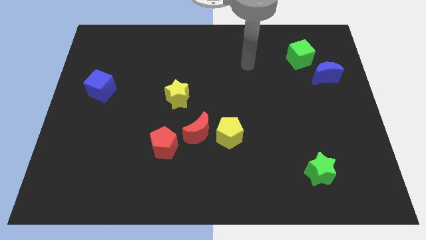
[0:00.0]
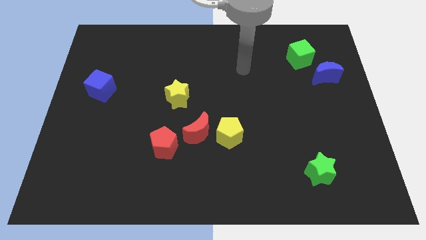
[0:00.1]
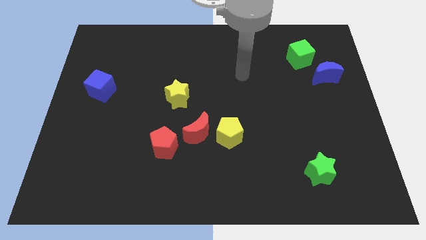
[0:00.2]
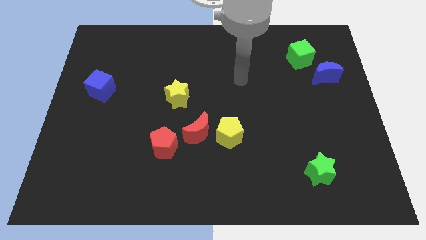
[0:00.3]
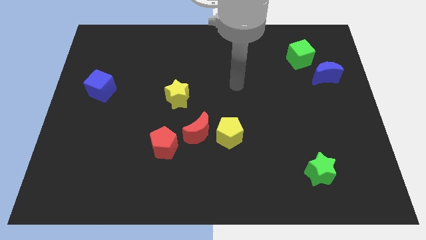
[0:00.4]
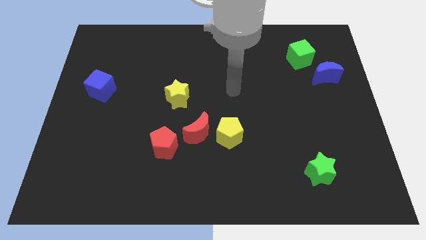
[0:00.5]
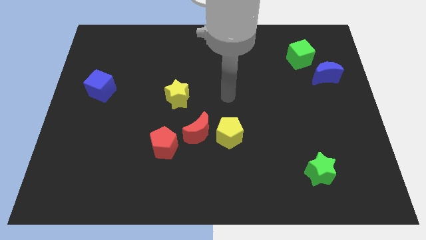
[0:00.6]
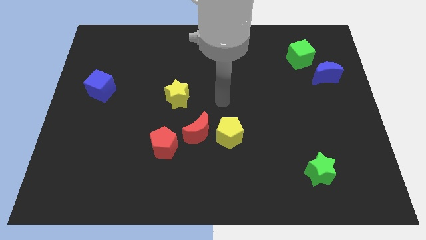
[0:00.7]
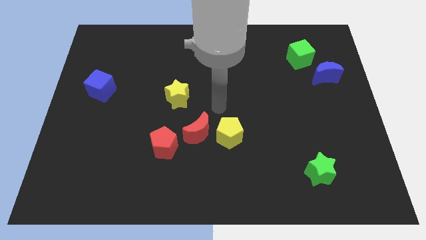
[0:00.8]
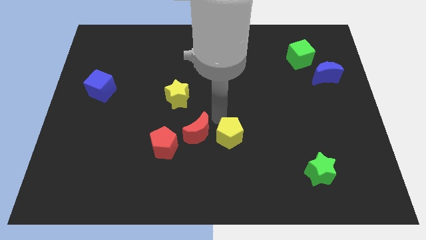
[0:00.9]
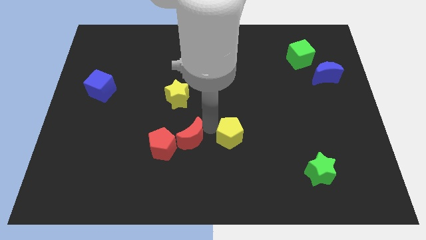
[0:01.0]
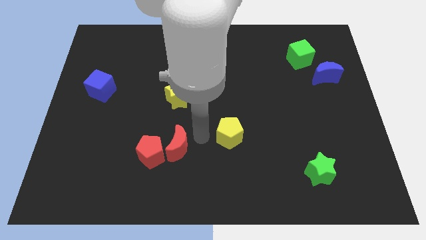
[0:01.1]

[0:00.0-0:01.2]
pull the yellow pentagon apart from the red moon

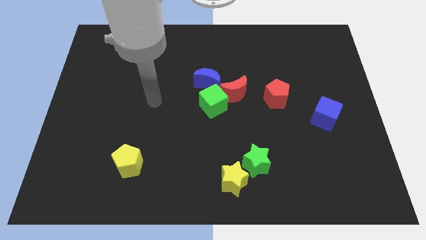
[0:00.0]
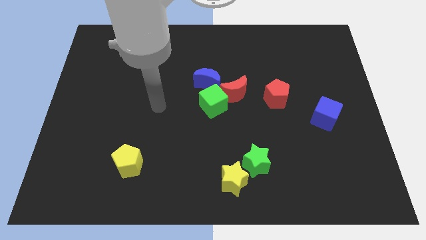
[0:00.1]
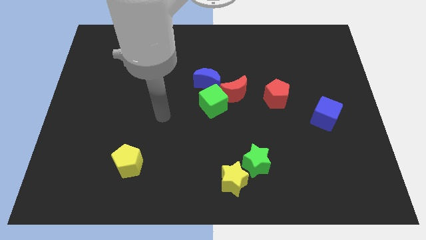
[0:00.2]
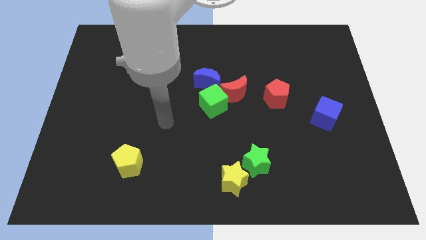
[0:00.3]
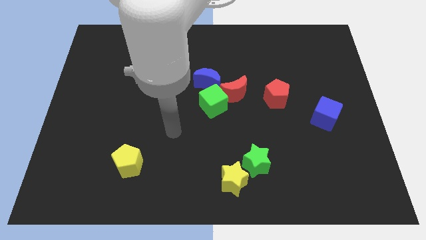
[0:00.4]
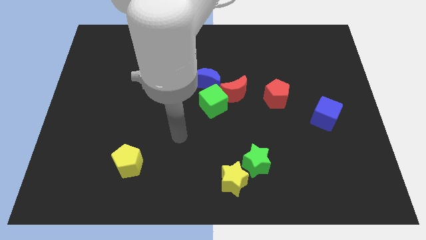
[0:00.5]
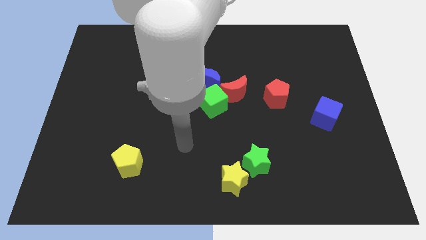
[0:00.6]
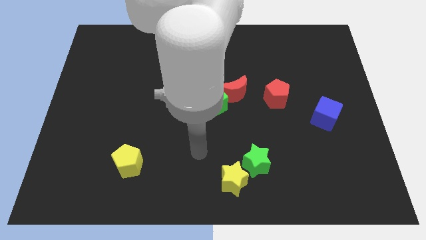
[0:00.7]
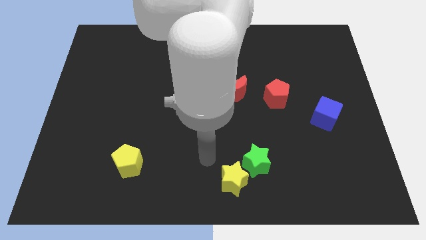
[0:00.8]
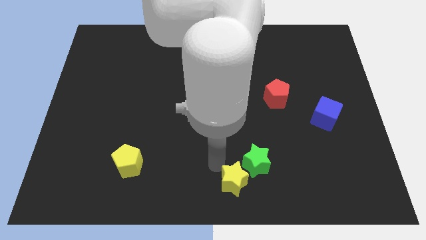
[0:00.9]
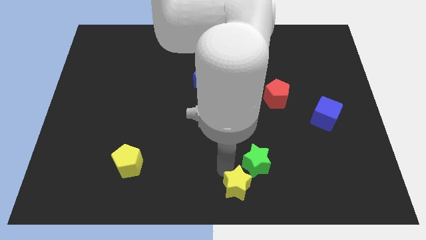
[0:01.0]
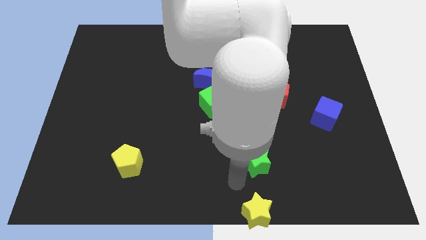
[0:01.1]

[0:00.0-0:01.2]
pull the green star apart from the yellow star

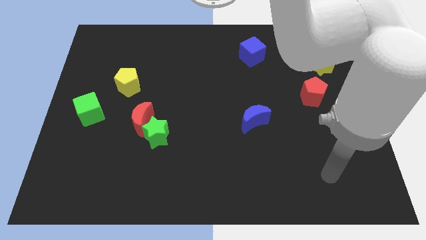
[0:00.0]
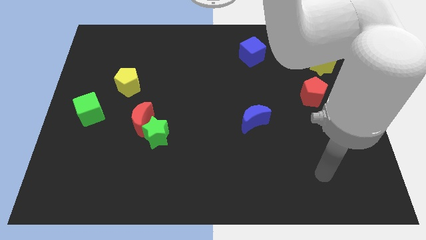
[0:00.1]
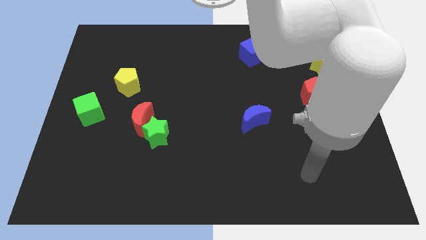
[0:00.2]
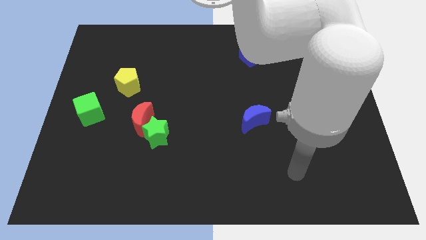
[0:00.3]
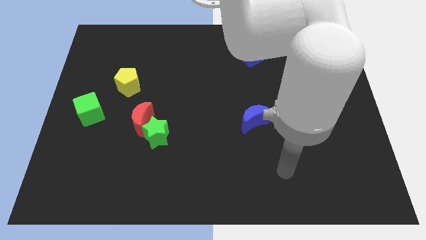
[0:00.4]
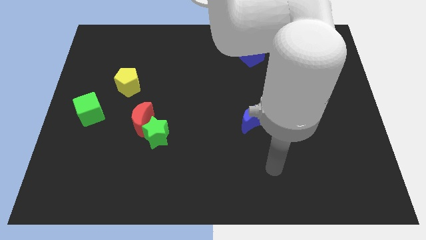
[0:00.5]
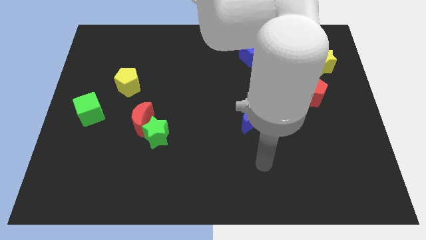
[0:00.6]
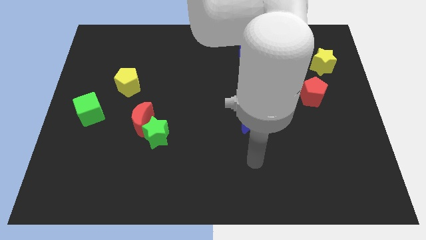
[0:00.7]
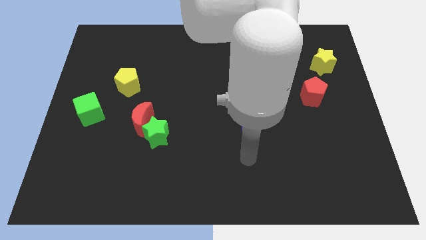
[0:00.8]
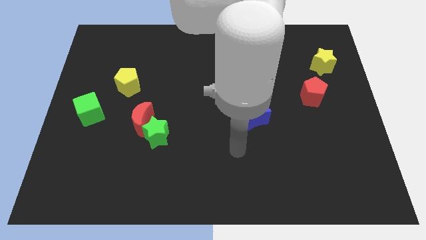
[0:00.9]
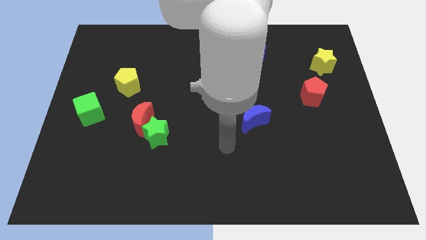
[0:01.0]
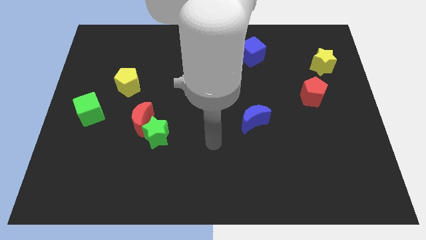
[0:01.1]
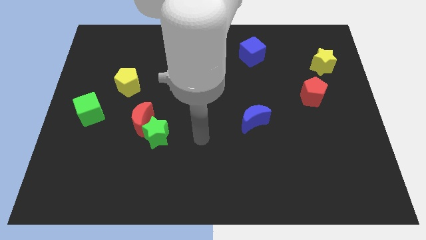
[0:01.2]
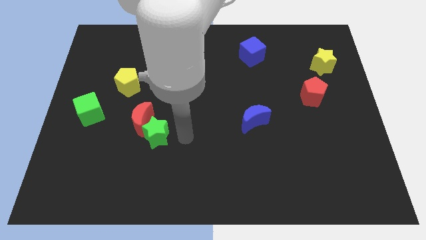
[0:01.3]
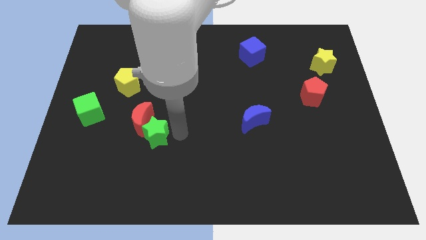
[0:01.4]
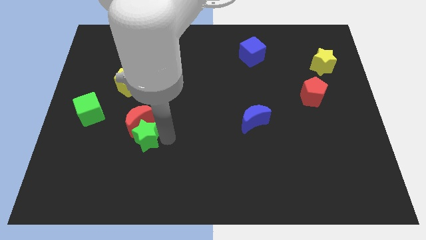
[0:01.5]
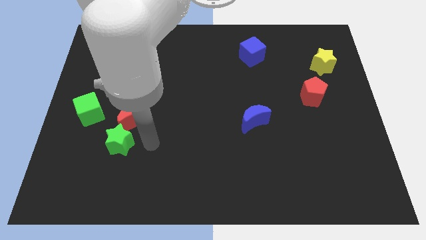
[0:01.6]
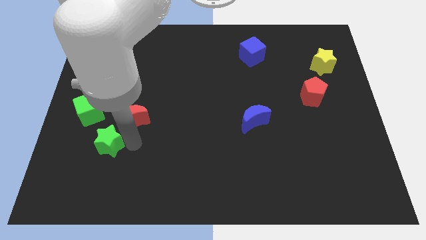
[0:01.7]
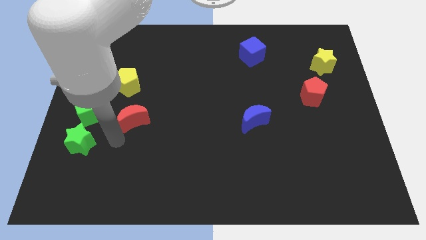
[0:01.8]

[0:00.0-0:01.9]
move the red moon away from the green star

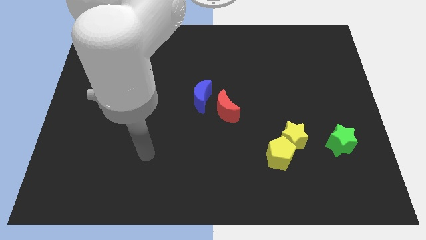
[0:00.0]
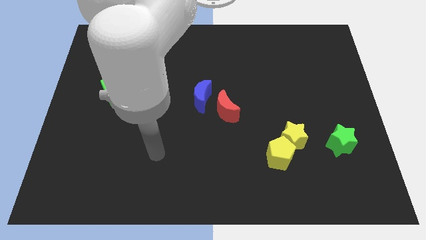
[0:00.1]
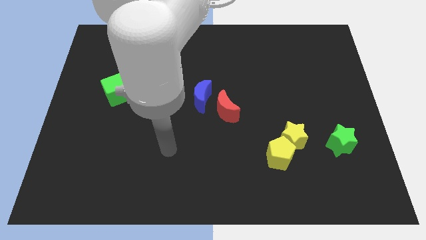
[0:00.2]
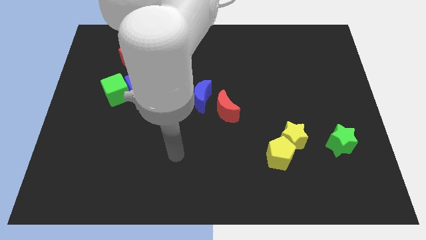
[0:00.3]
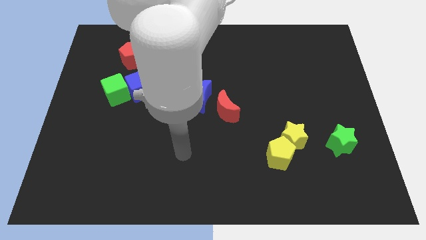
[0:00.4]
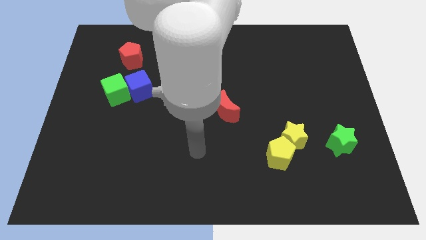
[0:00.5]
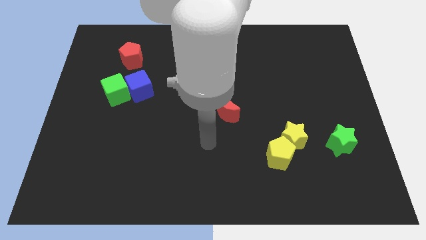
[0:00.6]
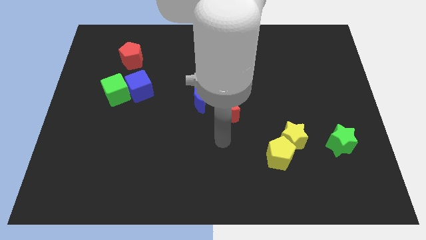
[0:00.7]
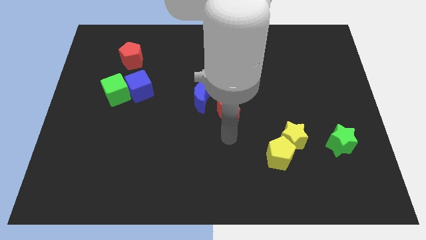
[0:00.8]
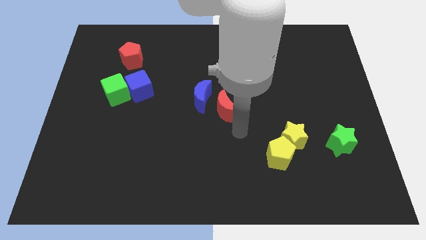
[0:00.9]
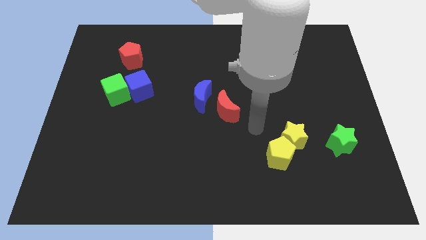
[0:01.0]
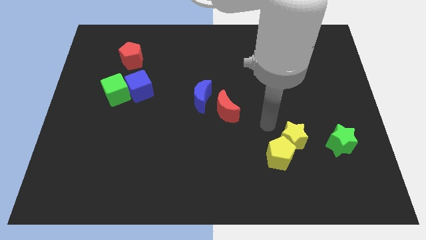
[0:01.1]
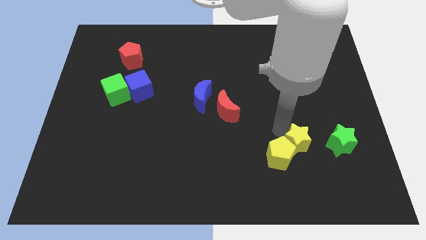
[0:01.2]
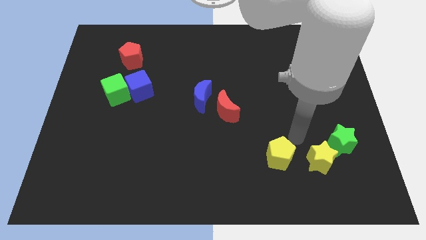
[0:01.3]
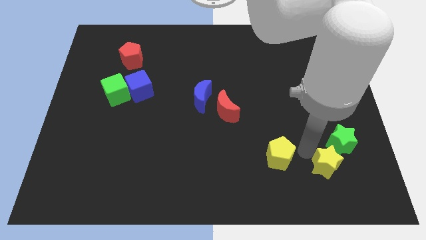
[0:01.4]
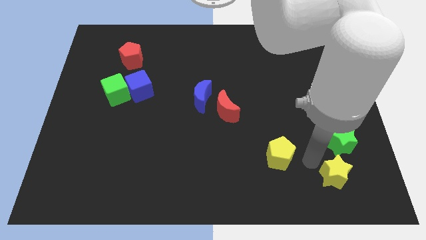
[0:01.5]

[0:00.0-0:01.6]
pull the yellow pentagon apart from the yellow star

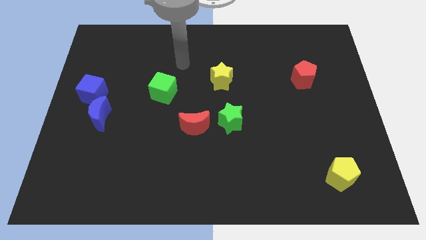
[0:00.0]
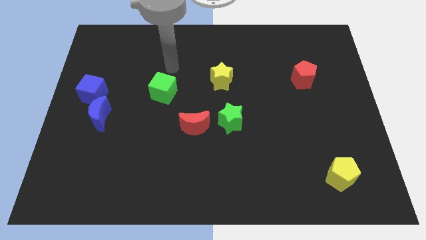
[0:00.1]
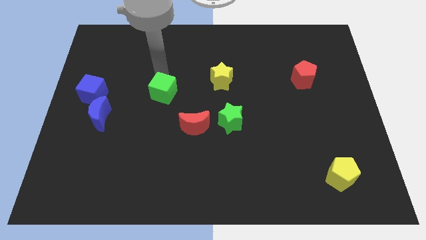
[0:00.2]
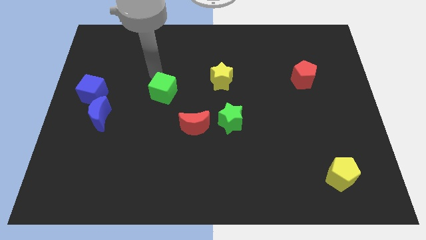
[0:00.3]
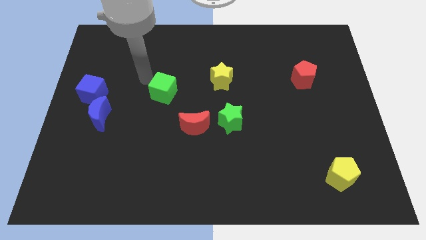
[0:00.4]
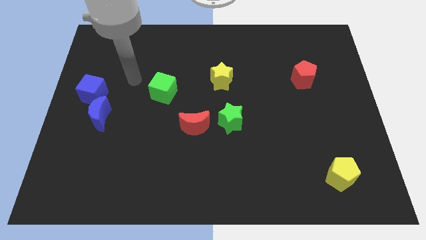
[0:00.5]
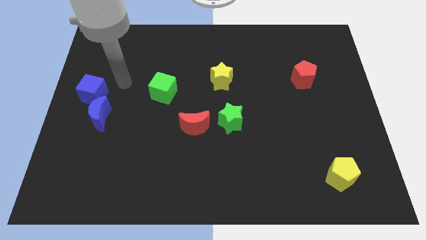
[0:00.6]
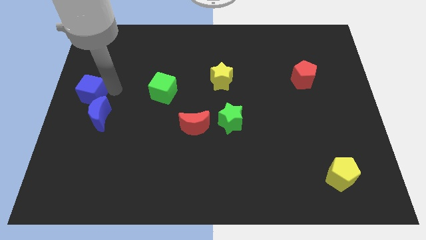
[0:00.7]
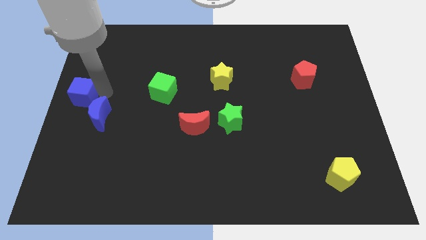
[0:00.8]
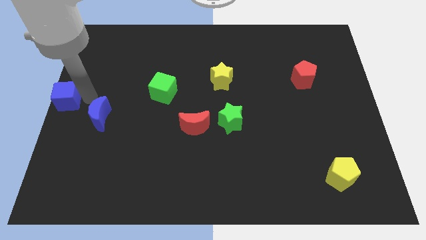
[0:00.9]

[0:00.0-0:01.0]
pull the blue moon apart from the blue cube

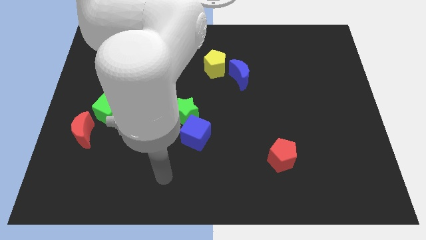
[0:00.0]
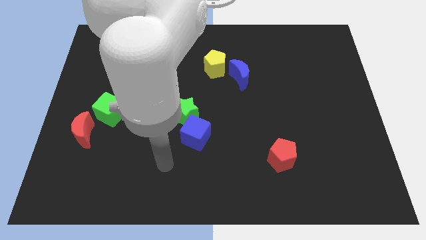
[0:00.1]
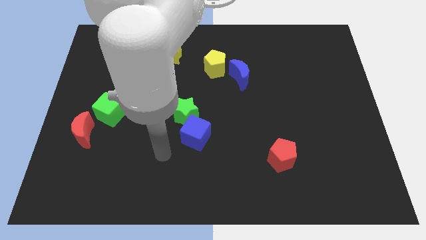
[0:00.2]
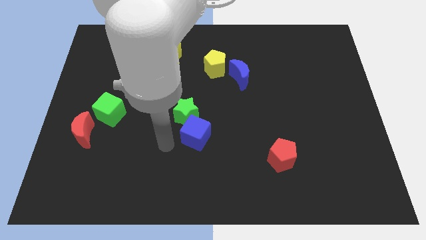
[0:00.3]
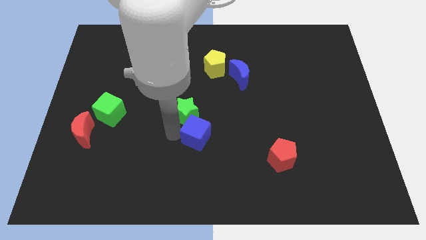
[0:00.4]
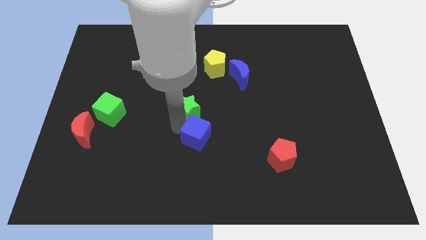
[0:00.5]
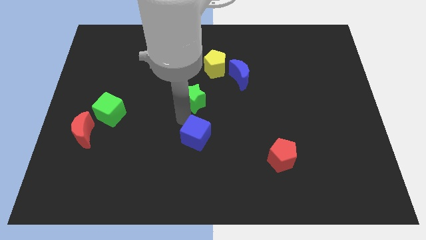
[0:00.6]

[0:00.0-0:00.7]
separate the blue cube from the green star

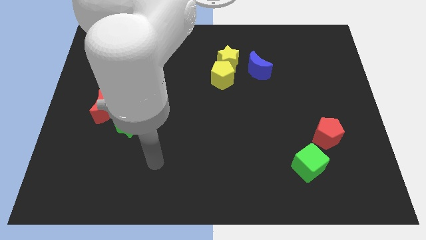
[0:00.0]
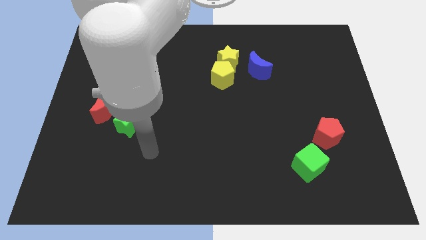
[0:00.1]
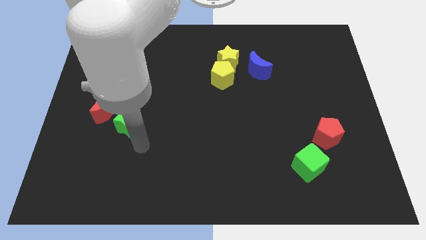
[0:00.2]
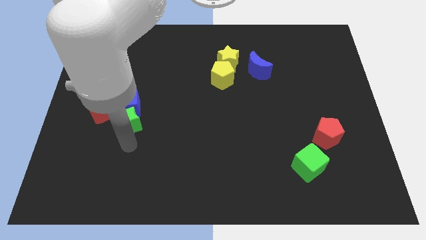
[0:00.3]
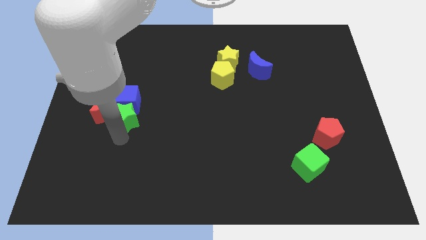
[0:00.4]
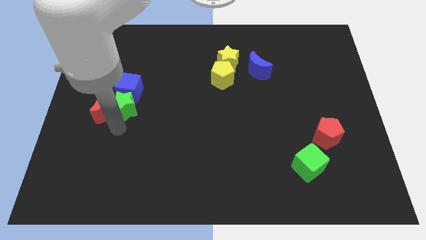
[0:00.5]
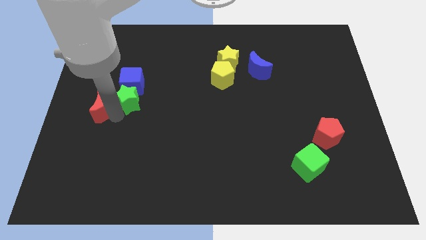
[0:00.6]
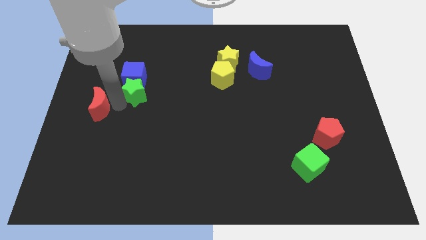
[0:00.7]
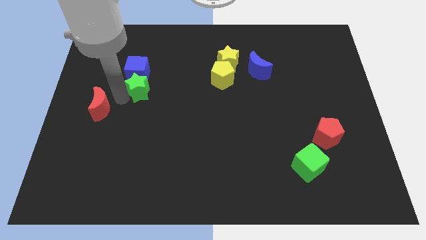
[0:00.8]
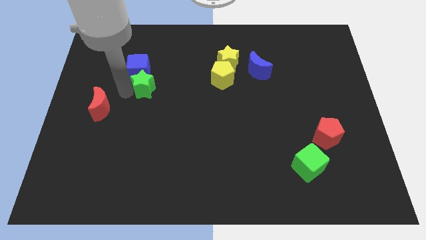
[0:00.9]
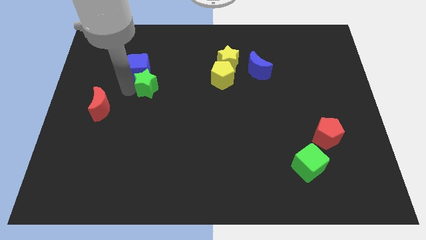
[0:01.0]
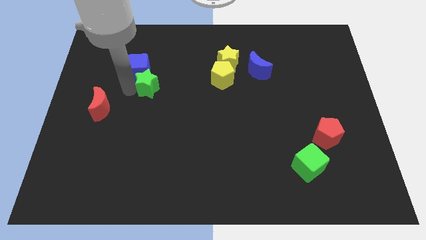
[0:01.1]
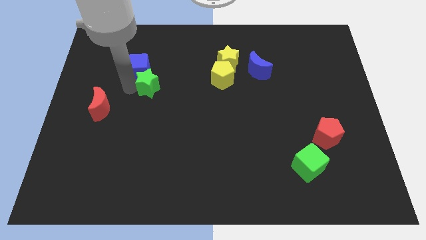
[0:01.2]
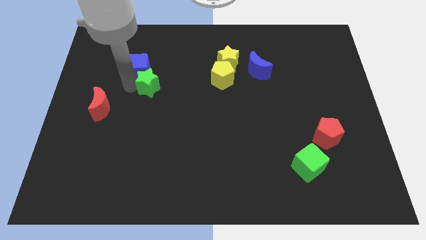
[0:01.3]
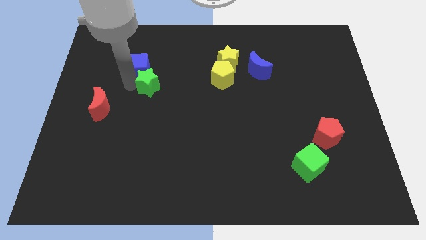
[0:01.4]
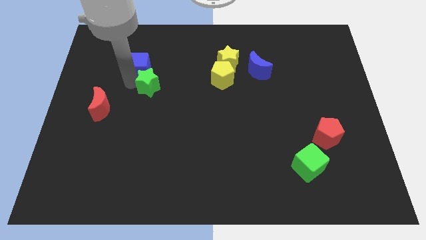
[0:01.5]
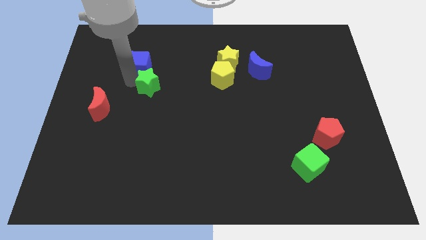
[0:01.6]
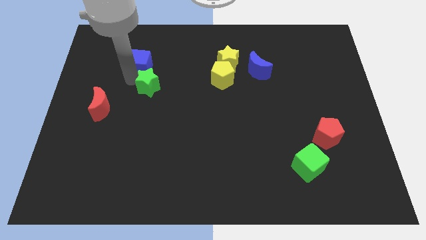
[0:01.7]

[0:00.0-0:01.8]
move the blue cube away from the green star and red moon

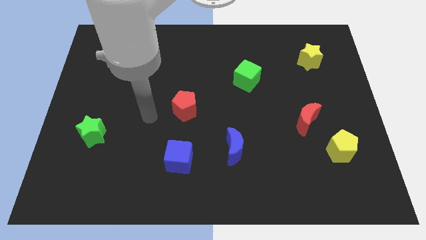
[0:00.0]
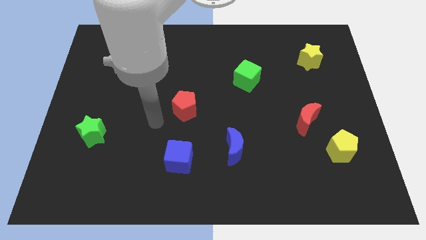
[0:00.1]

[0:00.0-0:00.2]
separate the red moon from the yellow pentagon
